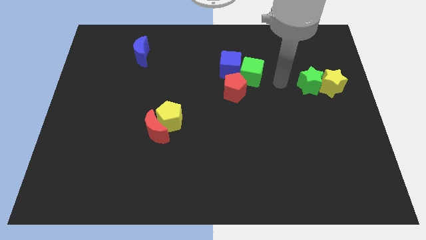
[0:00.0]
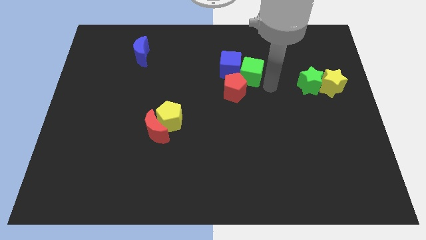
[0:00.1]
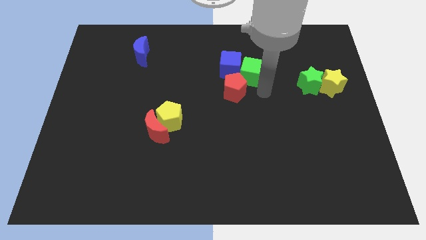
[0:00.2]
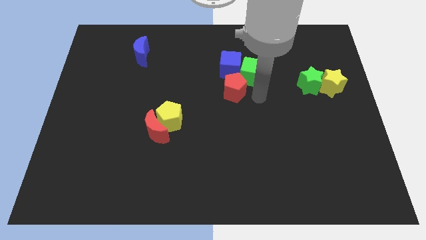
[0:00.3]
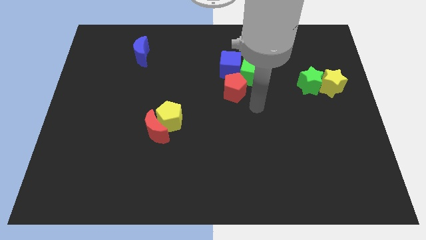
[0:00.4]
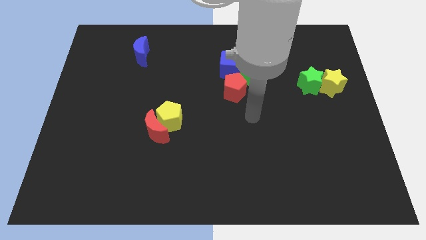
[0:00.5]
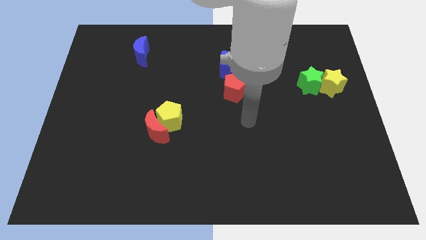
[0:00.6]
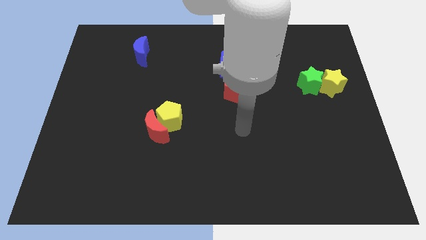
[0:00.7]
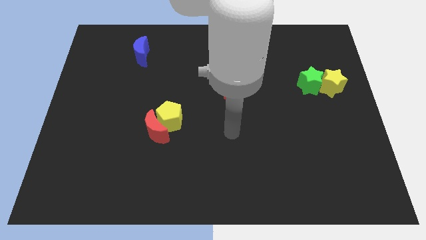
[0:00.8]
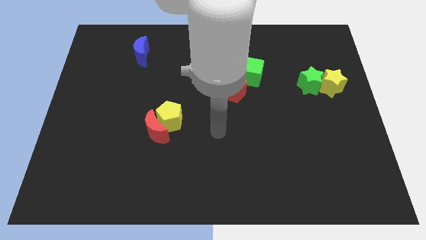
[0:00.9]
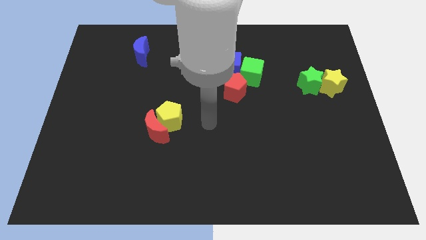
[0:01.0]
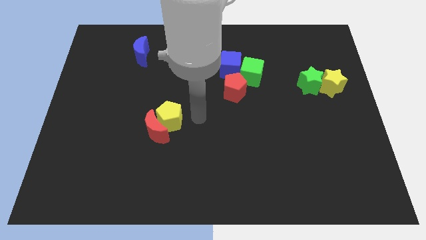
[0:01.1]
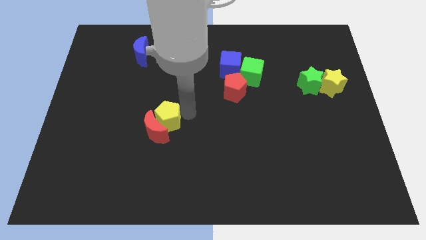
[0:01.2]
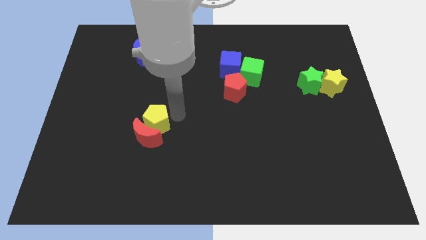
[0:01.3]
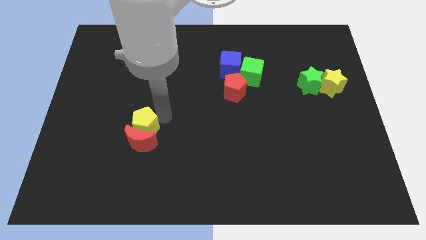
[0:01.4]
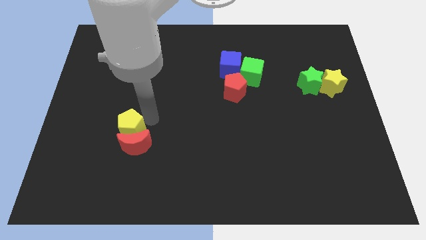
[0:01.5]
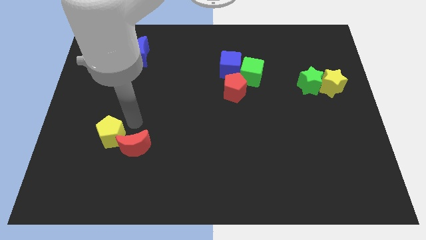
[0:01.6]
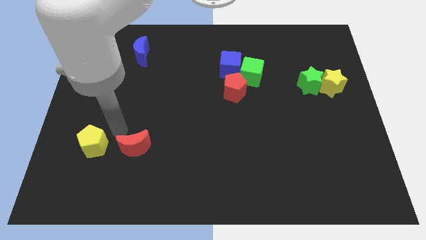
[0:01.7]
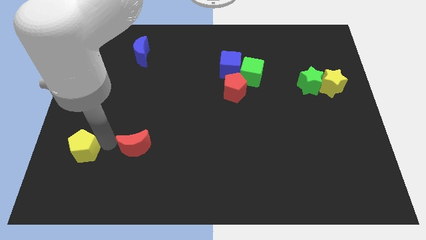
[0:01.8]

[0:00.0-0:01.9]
pull the red moon apart from the yellow pentagon

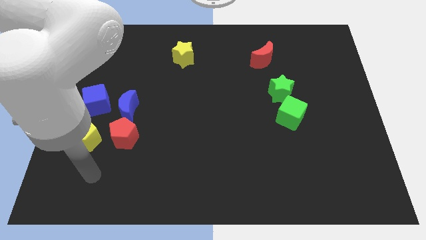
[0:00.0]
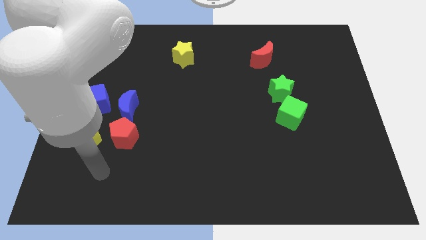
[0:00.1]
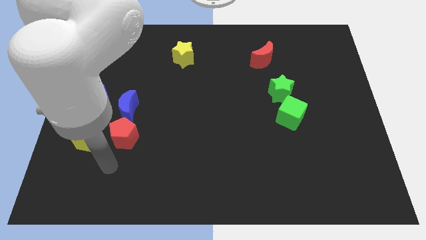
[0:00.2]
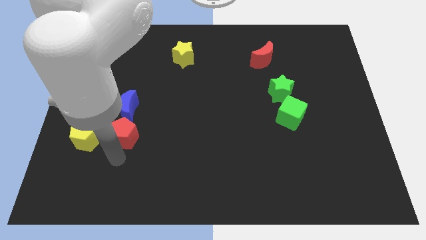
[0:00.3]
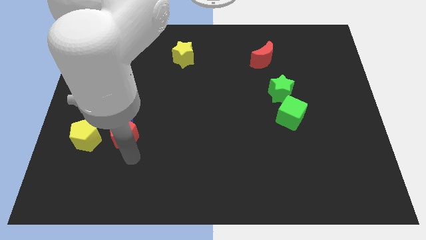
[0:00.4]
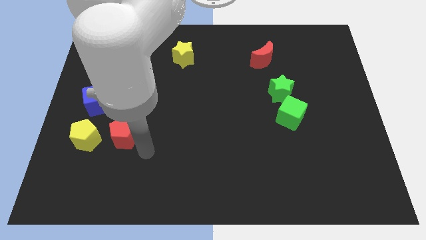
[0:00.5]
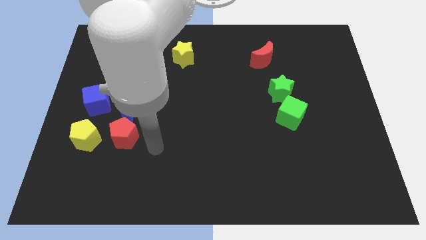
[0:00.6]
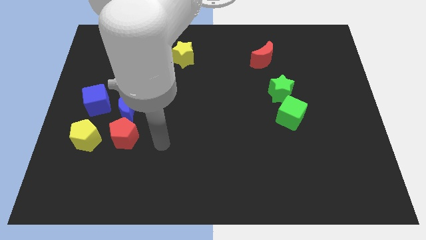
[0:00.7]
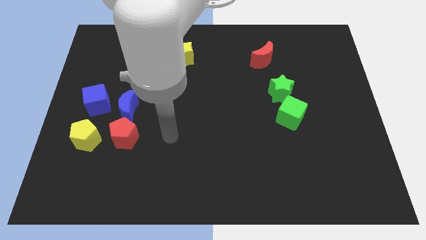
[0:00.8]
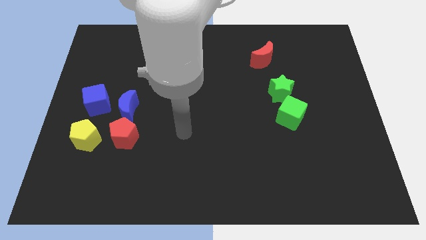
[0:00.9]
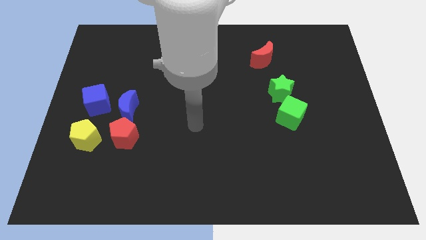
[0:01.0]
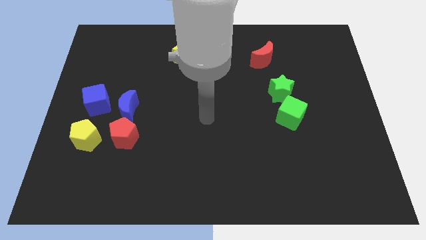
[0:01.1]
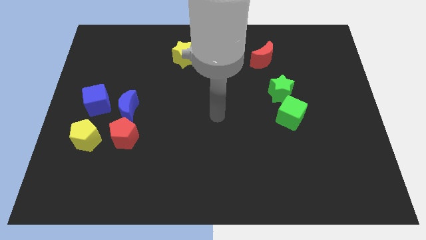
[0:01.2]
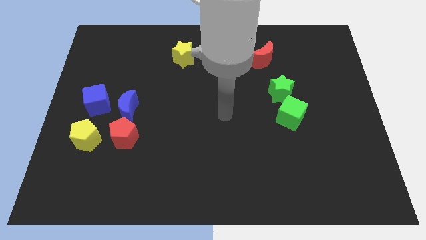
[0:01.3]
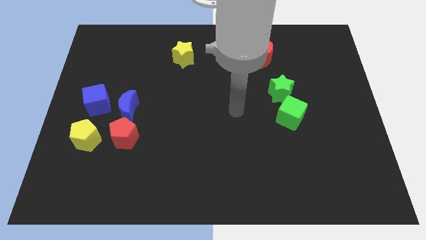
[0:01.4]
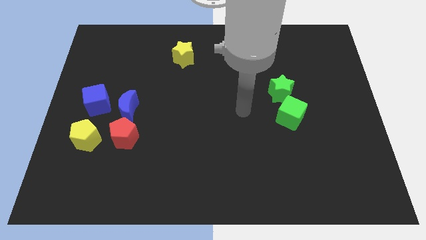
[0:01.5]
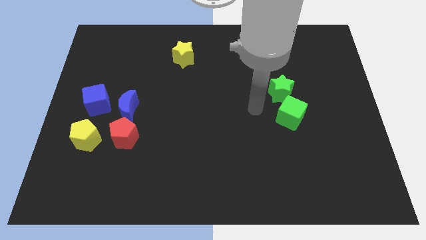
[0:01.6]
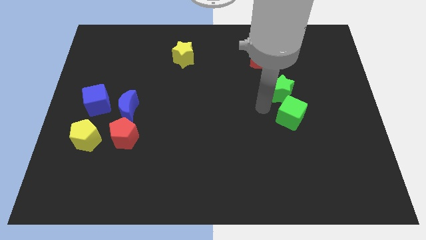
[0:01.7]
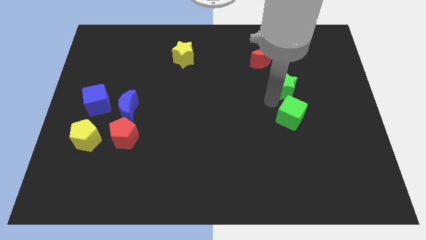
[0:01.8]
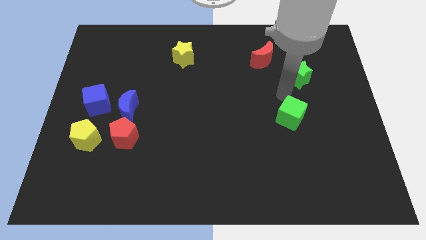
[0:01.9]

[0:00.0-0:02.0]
move the green cube away from the green star

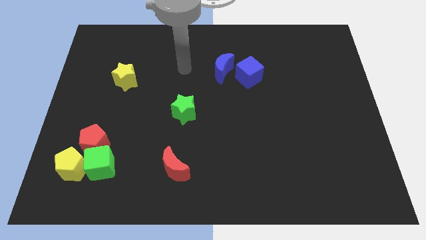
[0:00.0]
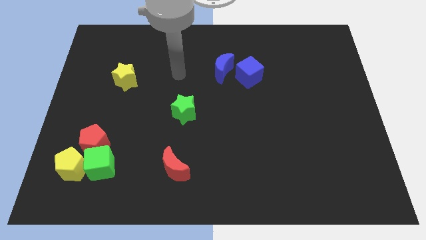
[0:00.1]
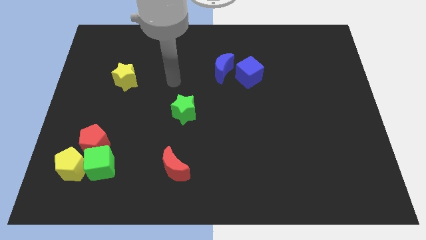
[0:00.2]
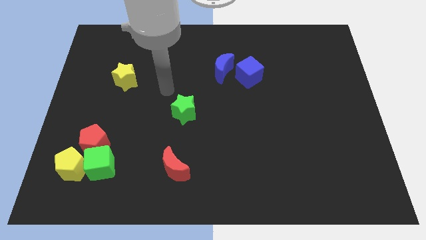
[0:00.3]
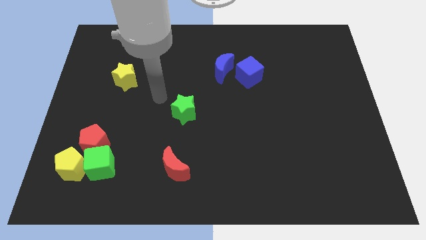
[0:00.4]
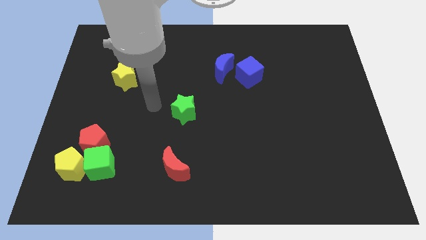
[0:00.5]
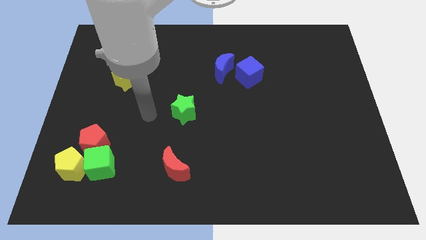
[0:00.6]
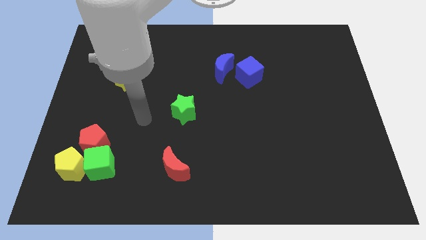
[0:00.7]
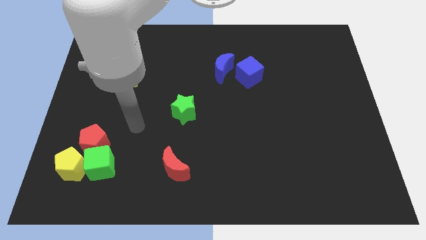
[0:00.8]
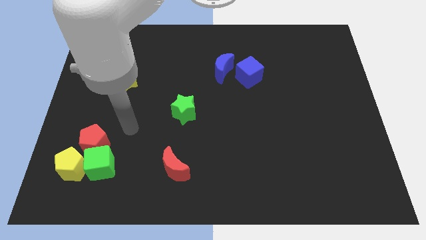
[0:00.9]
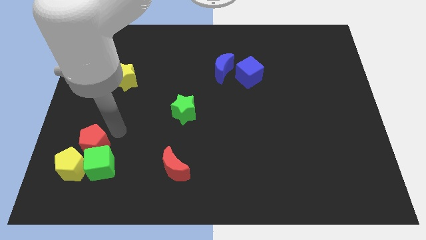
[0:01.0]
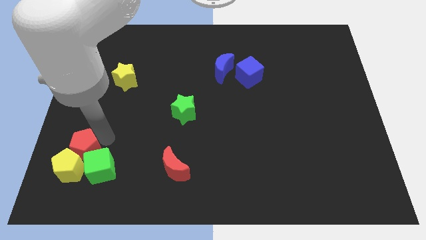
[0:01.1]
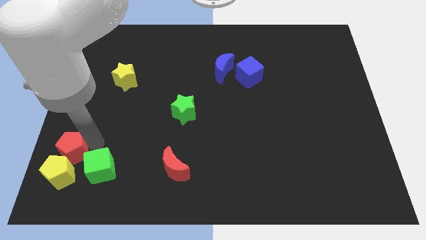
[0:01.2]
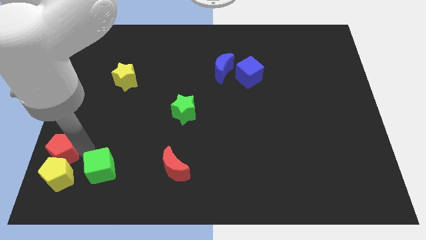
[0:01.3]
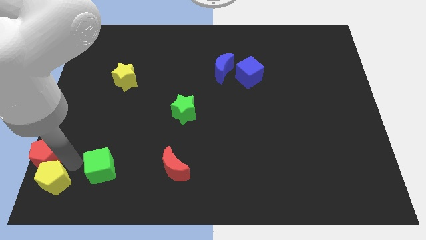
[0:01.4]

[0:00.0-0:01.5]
move the green cube away from the red pentagon and yellow pentagon

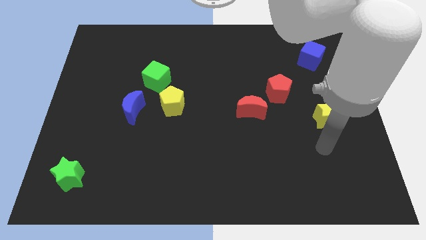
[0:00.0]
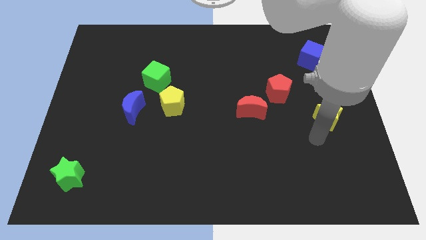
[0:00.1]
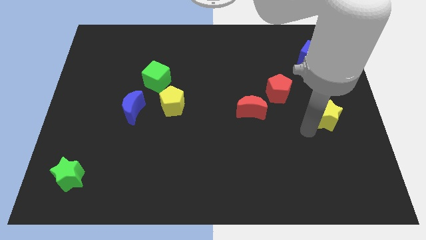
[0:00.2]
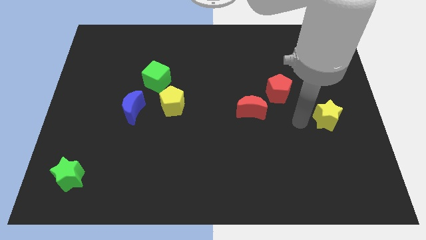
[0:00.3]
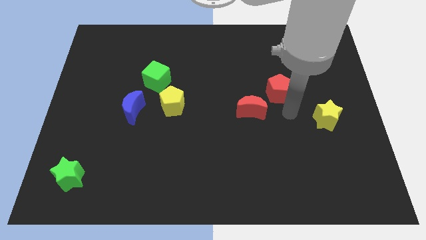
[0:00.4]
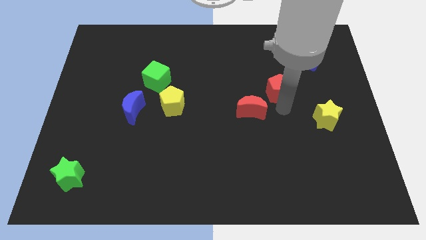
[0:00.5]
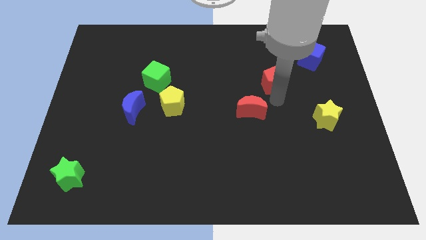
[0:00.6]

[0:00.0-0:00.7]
pull the red moon apart from the red pentagon

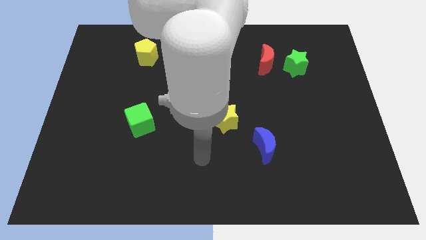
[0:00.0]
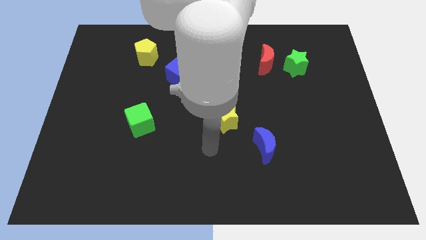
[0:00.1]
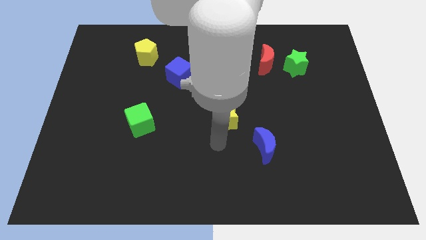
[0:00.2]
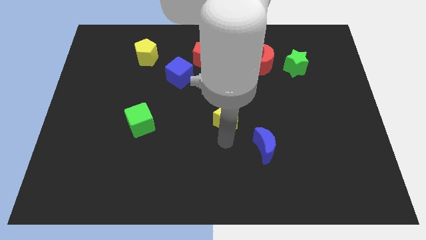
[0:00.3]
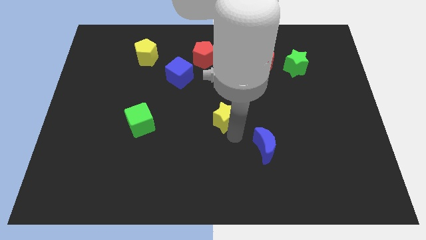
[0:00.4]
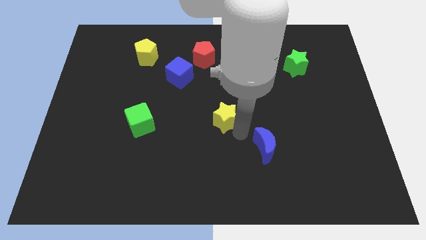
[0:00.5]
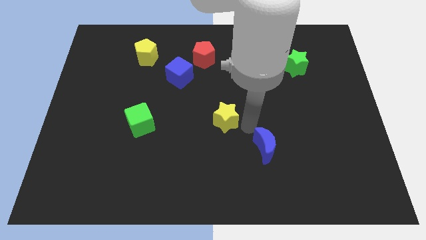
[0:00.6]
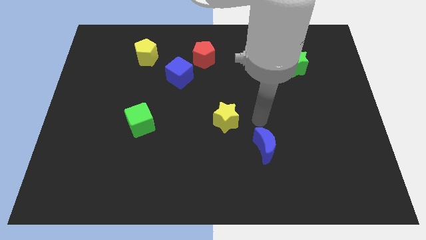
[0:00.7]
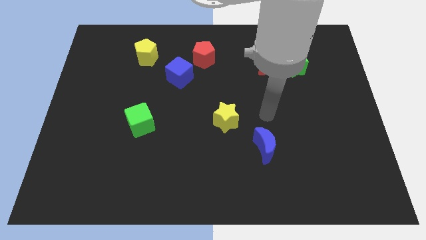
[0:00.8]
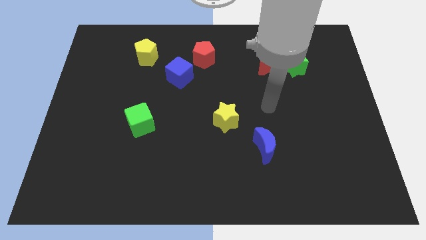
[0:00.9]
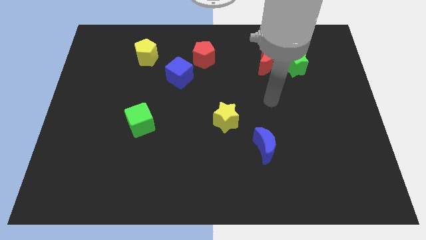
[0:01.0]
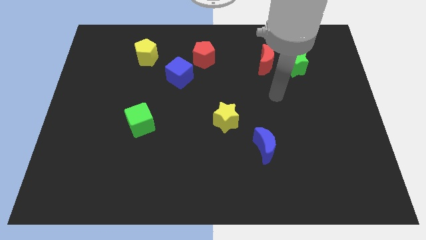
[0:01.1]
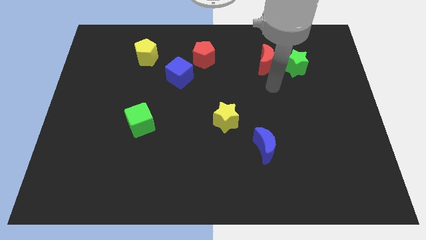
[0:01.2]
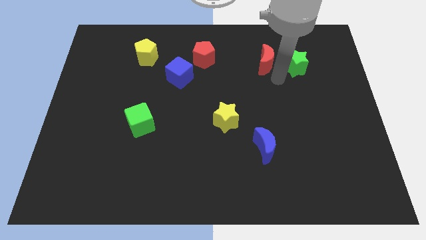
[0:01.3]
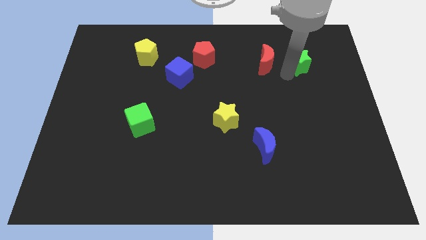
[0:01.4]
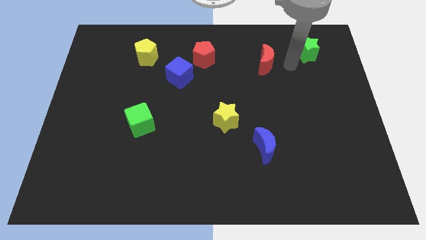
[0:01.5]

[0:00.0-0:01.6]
separate the red moon from the green star

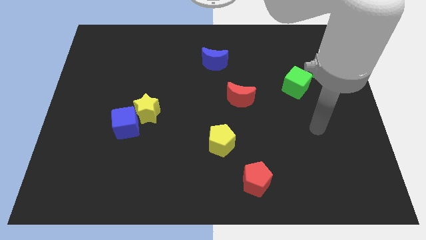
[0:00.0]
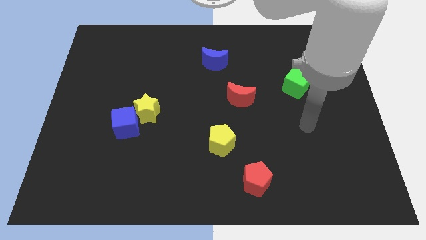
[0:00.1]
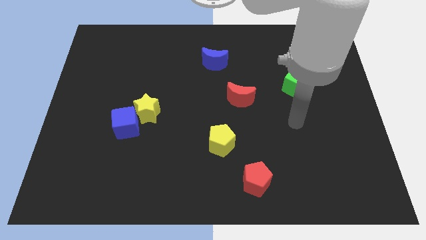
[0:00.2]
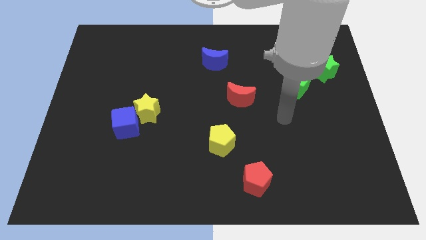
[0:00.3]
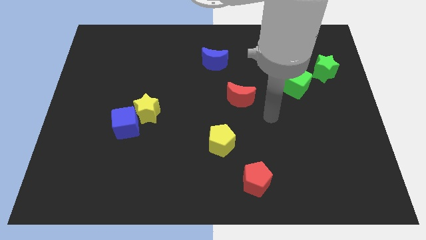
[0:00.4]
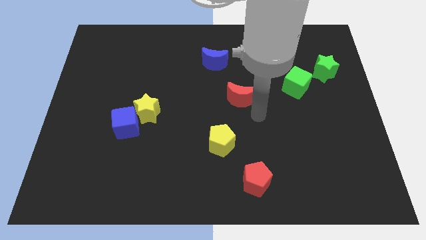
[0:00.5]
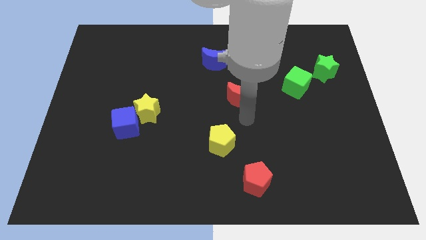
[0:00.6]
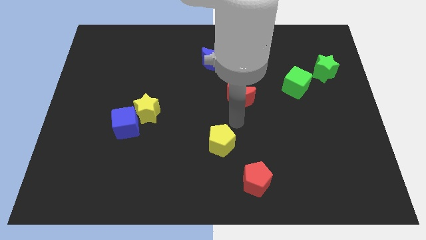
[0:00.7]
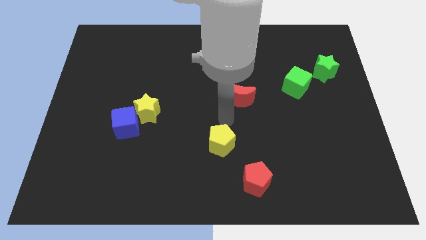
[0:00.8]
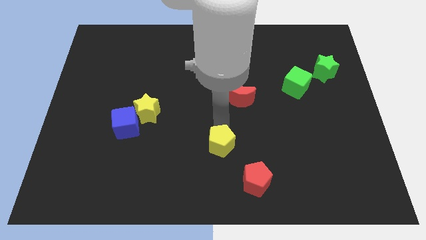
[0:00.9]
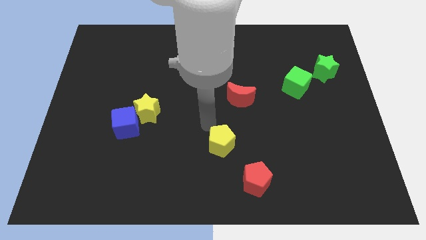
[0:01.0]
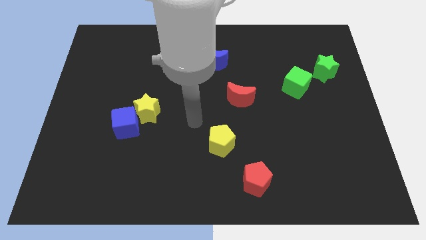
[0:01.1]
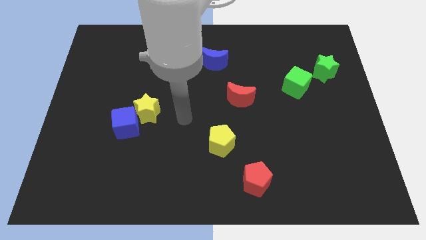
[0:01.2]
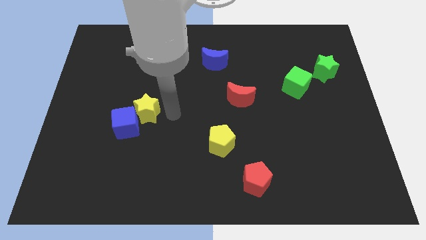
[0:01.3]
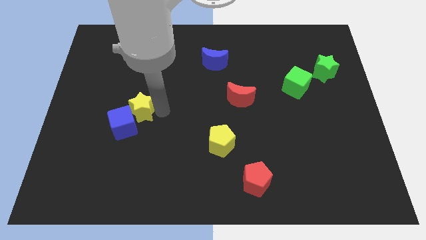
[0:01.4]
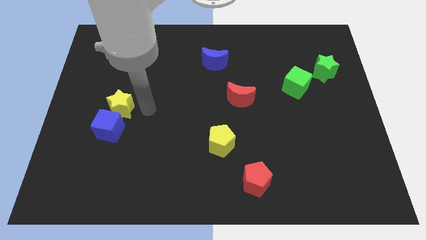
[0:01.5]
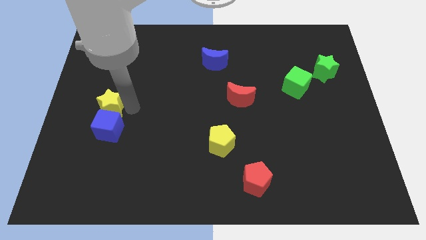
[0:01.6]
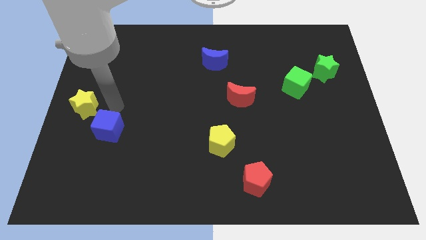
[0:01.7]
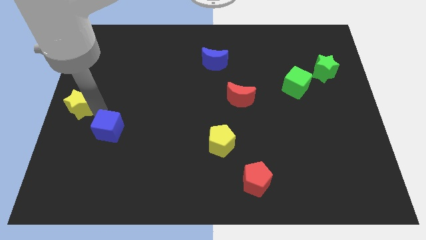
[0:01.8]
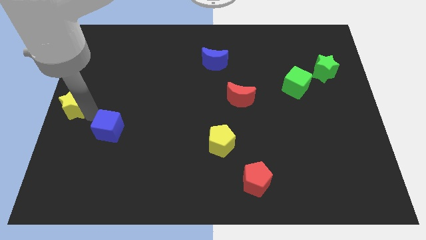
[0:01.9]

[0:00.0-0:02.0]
pull the blue cube apart from the yellow star
